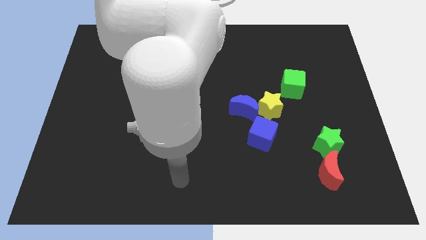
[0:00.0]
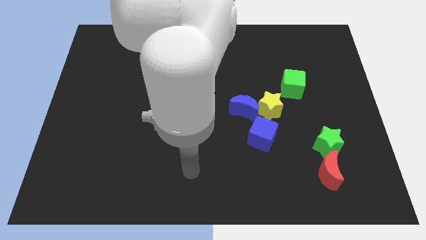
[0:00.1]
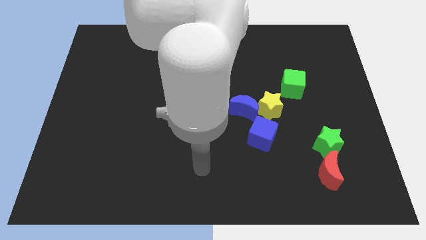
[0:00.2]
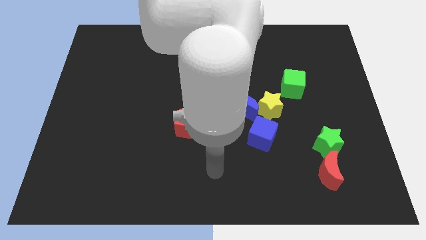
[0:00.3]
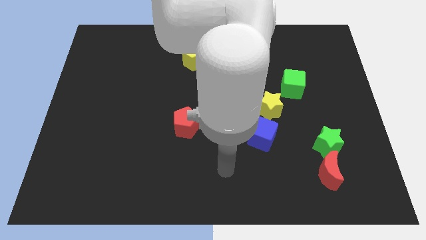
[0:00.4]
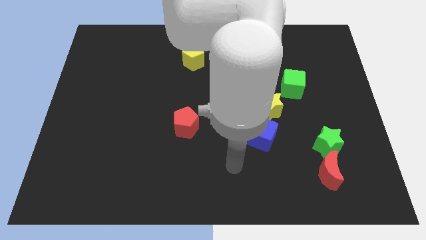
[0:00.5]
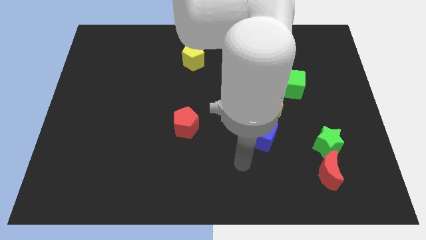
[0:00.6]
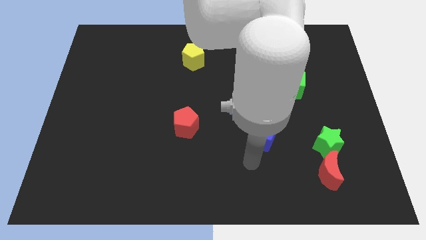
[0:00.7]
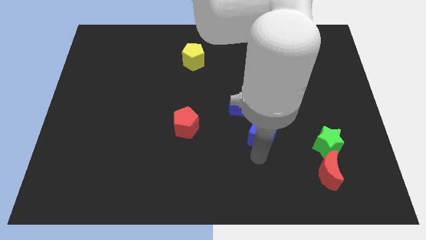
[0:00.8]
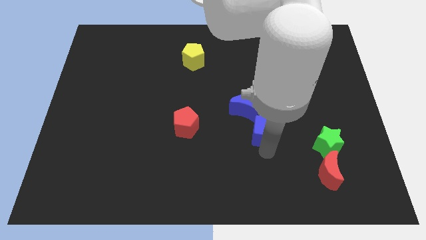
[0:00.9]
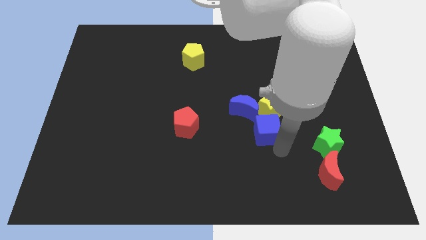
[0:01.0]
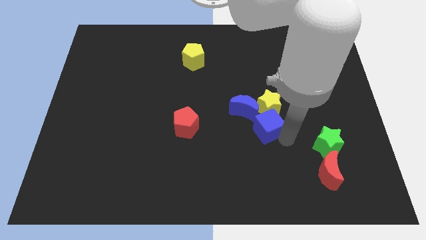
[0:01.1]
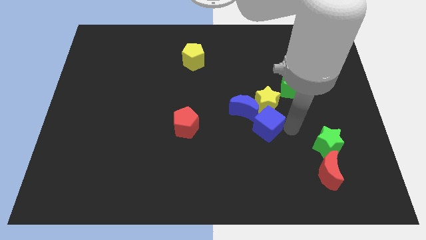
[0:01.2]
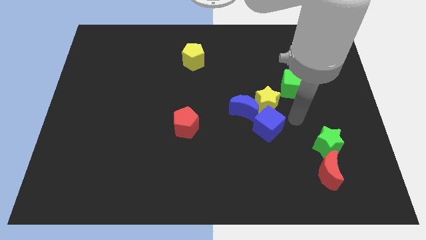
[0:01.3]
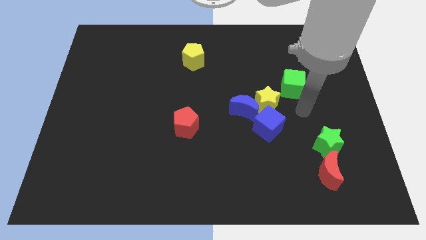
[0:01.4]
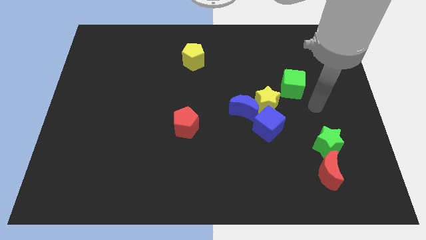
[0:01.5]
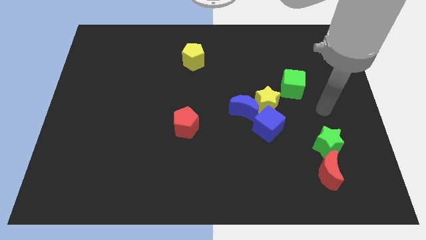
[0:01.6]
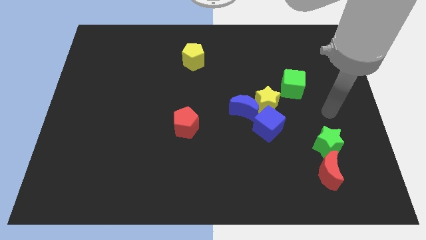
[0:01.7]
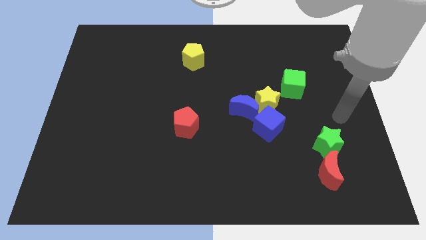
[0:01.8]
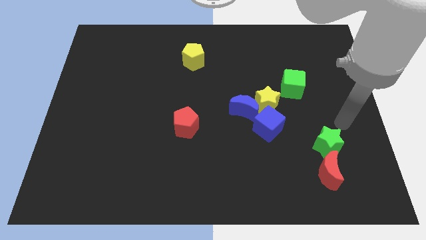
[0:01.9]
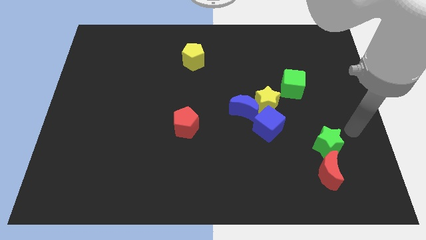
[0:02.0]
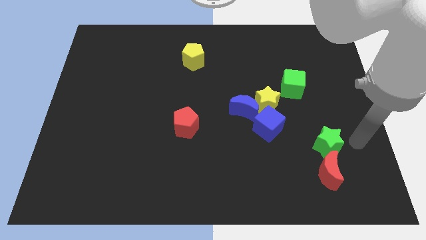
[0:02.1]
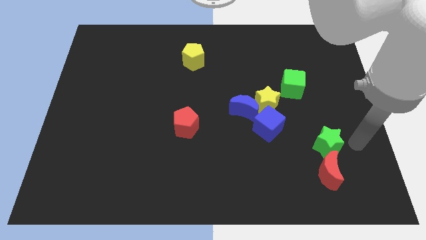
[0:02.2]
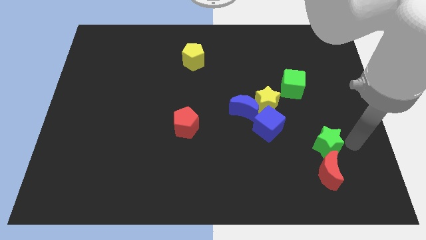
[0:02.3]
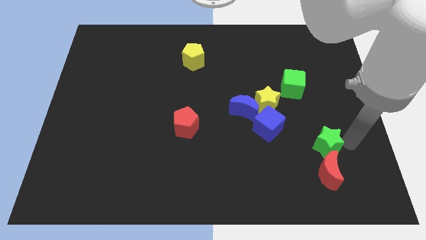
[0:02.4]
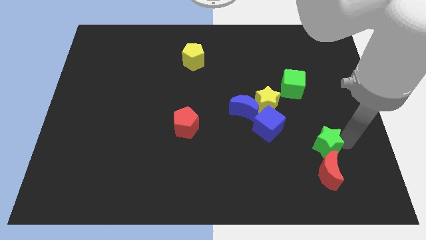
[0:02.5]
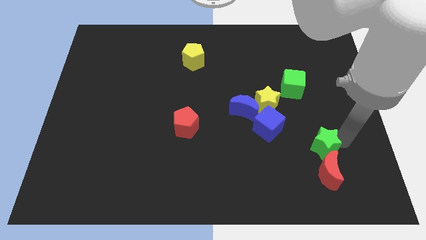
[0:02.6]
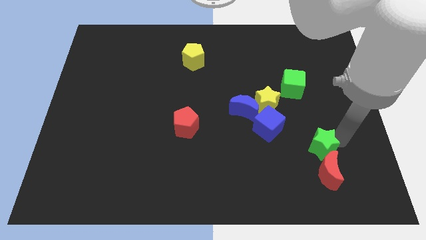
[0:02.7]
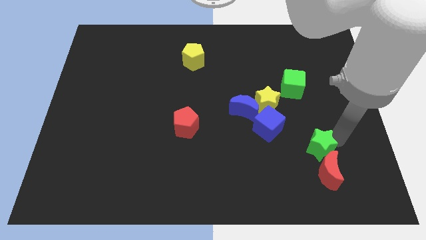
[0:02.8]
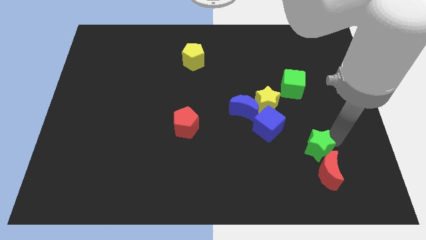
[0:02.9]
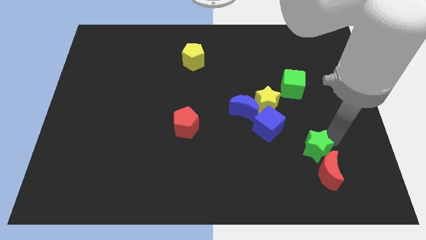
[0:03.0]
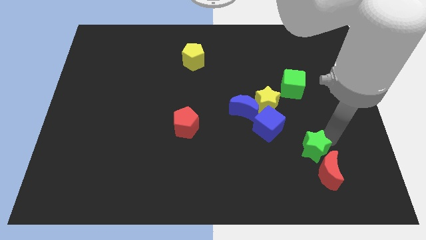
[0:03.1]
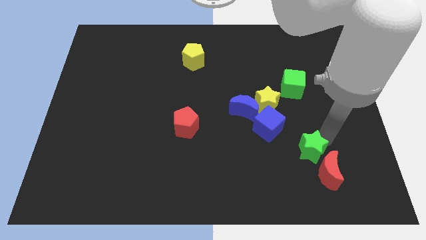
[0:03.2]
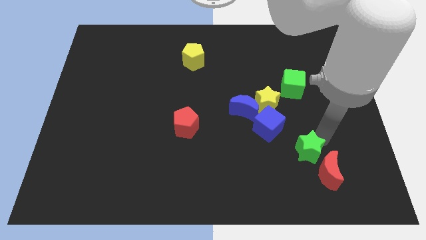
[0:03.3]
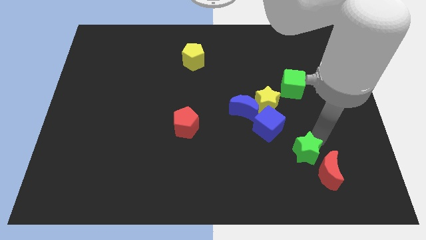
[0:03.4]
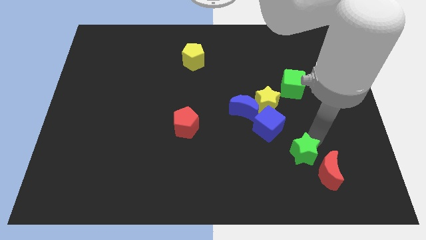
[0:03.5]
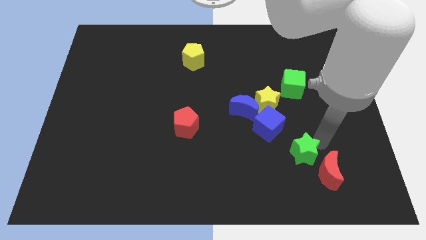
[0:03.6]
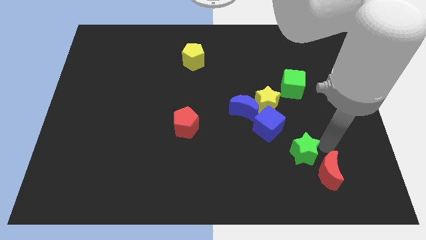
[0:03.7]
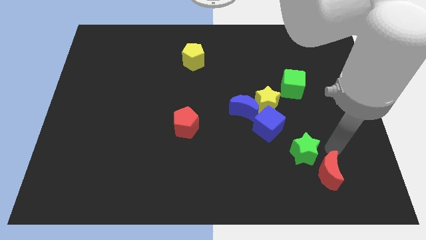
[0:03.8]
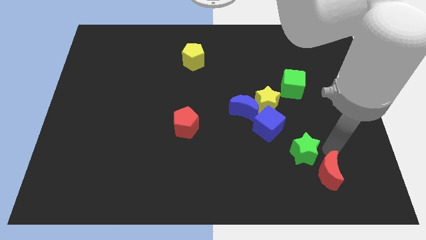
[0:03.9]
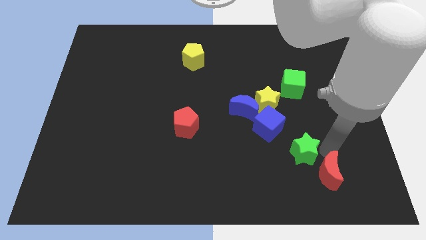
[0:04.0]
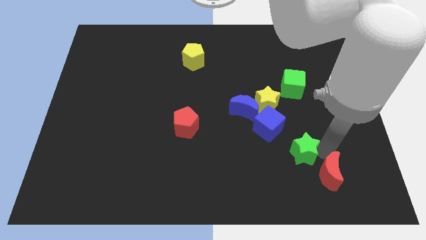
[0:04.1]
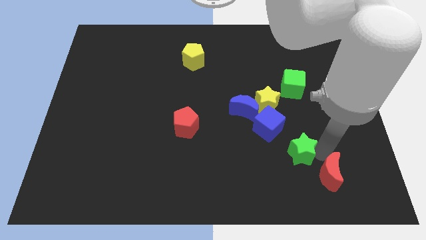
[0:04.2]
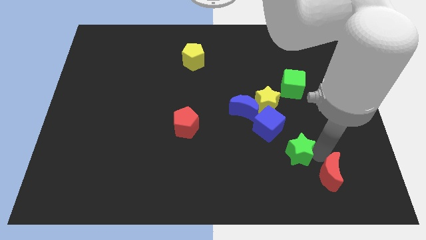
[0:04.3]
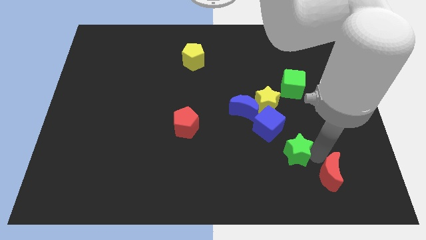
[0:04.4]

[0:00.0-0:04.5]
move the green star slightly to the left

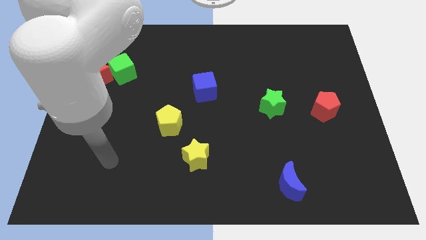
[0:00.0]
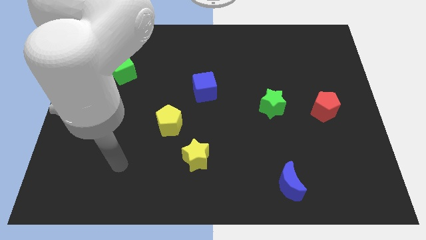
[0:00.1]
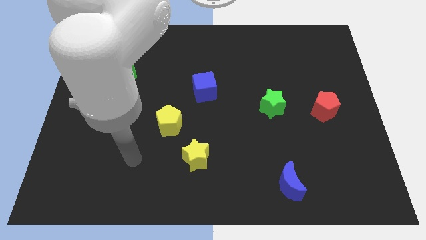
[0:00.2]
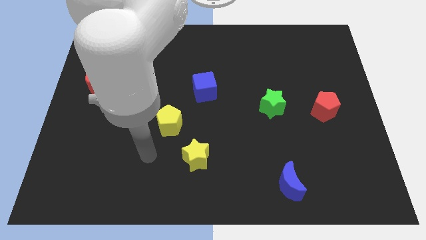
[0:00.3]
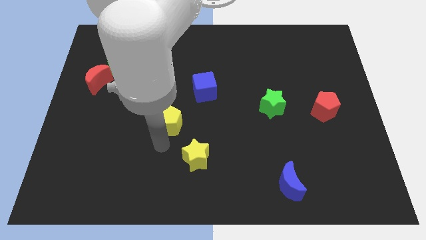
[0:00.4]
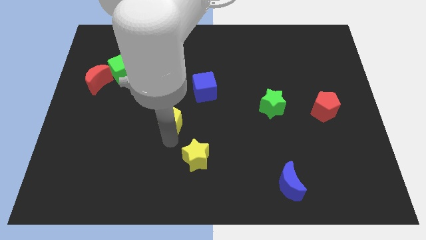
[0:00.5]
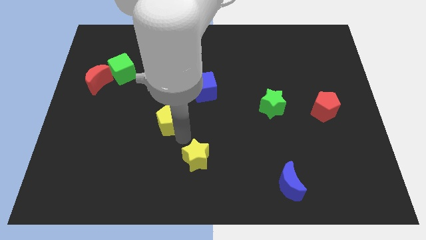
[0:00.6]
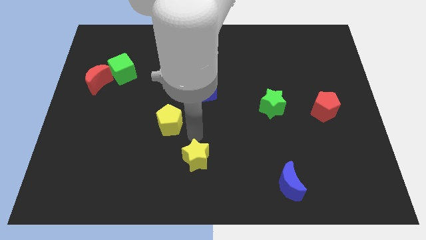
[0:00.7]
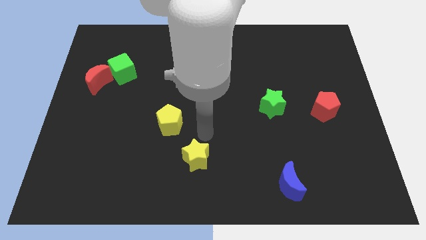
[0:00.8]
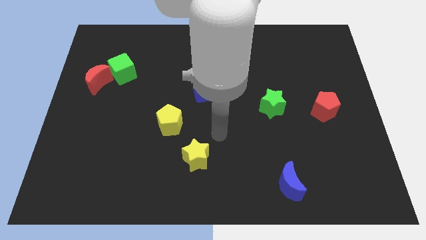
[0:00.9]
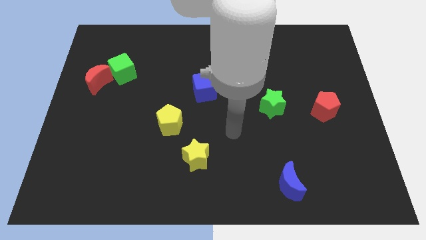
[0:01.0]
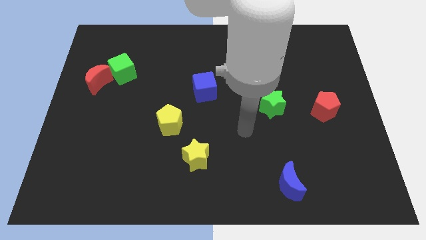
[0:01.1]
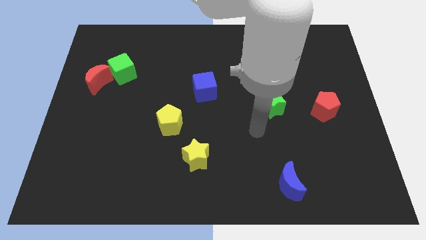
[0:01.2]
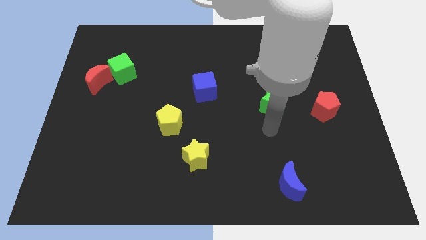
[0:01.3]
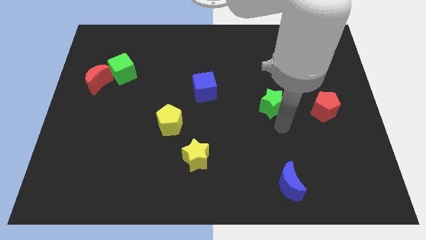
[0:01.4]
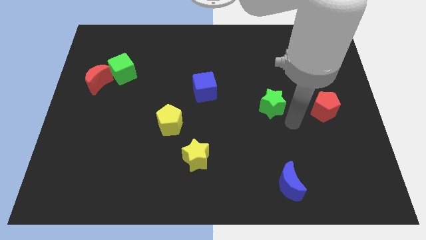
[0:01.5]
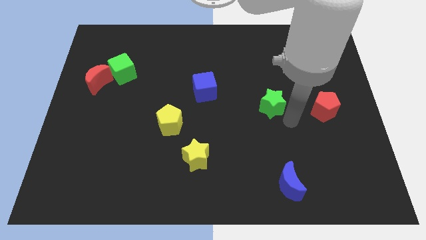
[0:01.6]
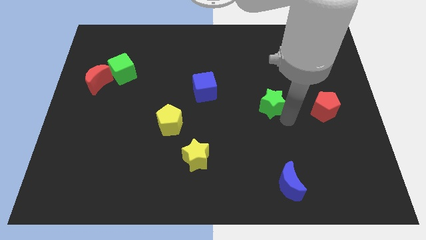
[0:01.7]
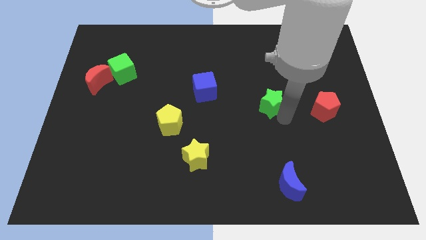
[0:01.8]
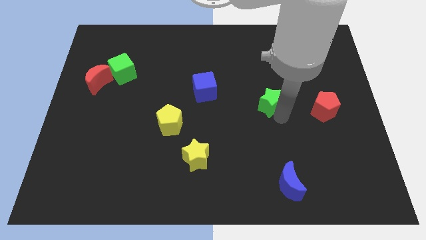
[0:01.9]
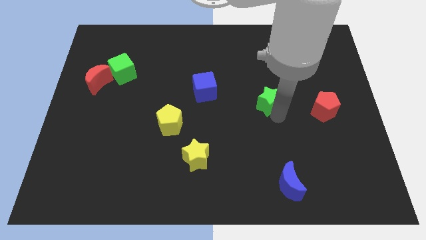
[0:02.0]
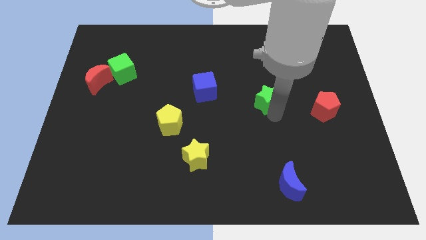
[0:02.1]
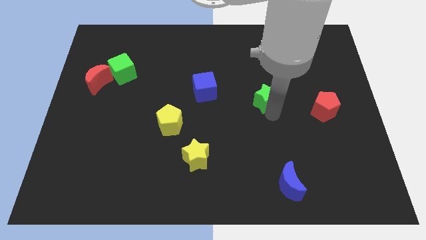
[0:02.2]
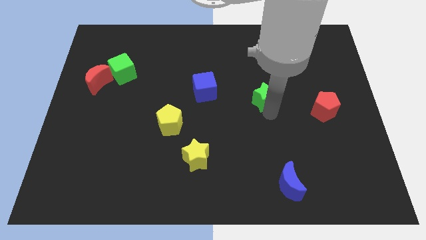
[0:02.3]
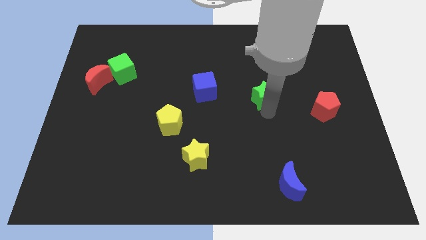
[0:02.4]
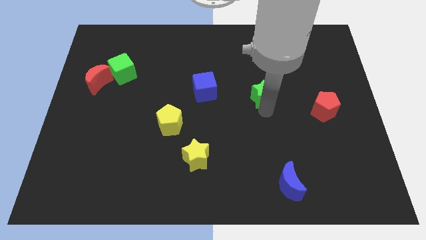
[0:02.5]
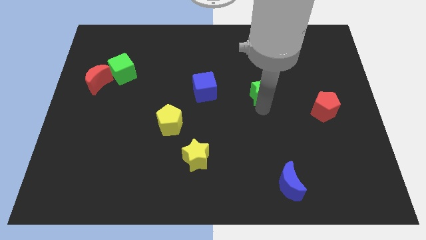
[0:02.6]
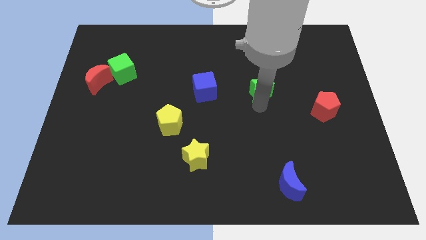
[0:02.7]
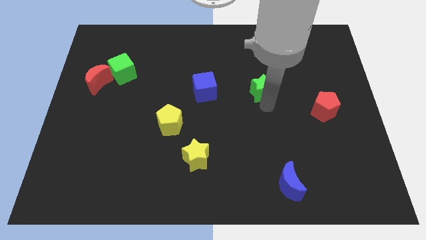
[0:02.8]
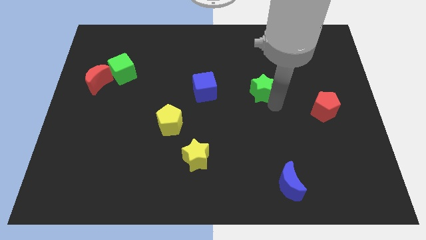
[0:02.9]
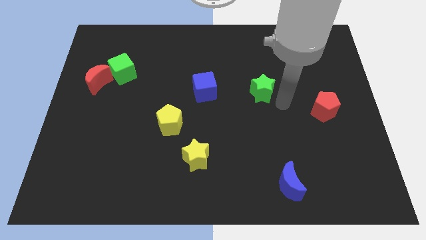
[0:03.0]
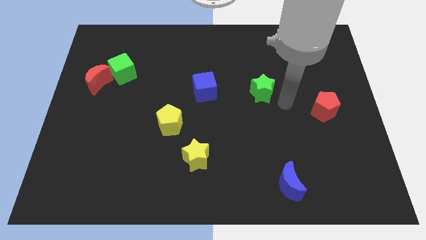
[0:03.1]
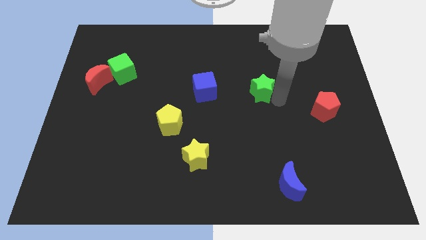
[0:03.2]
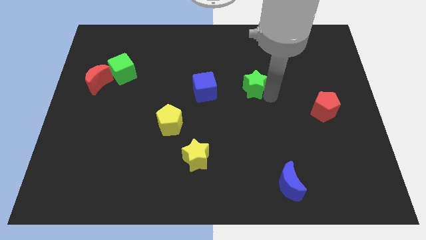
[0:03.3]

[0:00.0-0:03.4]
slightly push the green star up and to the left
